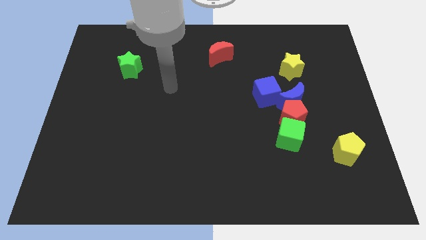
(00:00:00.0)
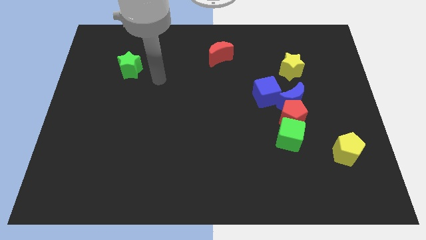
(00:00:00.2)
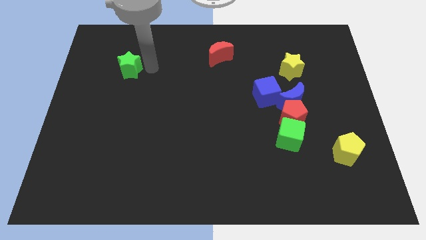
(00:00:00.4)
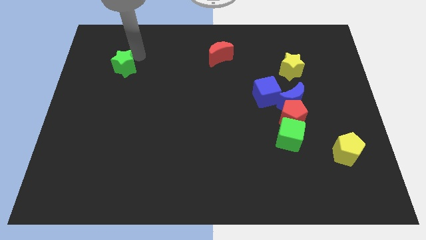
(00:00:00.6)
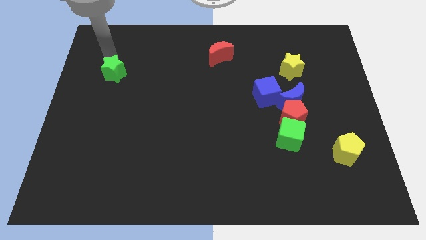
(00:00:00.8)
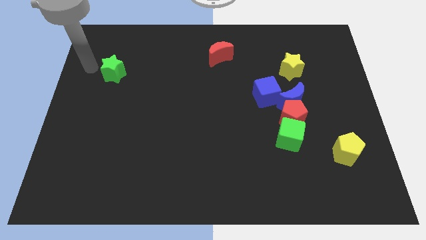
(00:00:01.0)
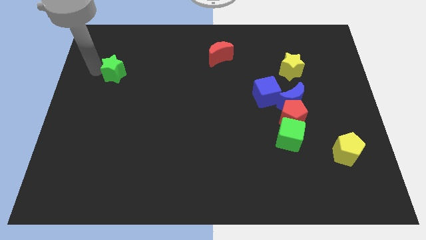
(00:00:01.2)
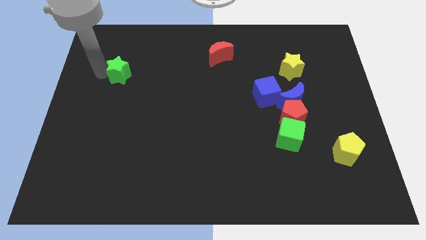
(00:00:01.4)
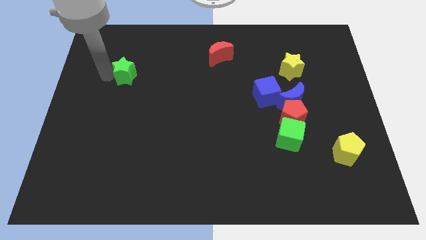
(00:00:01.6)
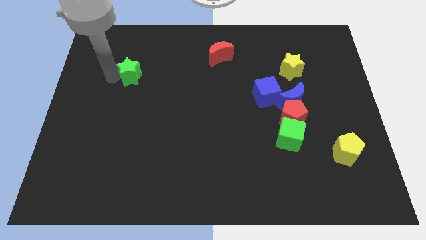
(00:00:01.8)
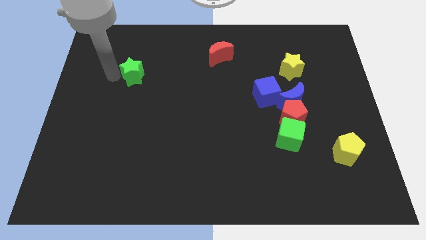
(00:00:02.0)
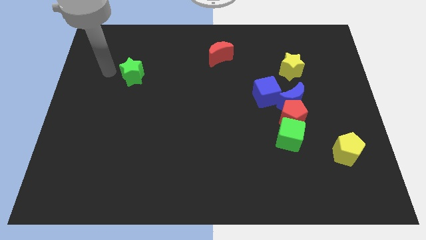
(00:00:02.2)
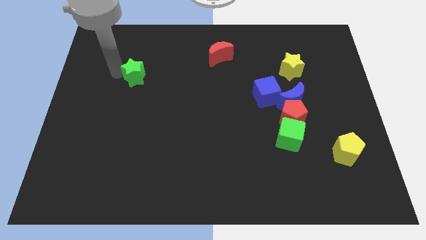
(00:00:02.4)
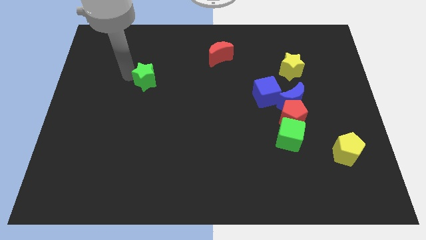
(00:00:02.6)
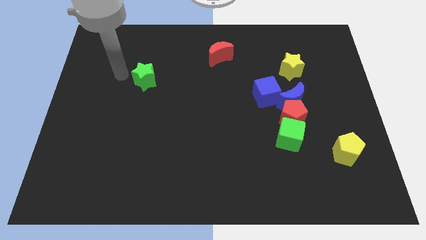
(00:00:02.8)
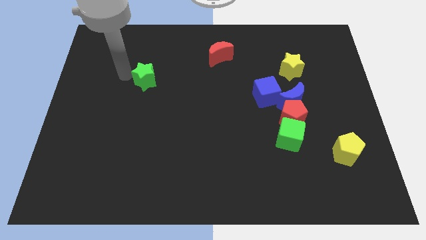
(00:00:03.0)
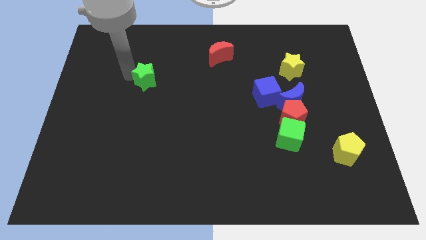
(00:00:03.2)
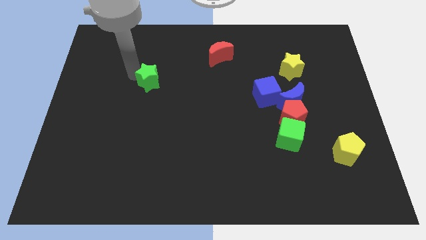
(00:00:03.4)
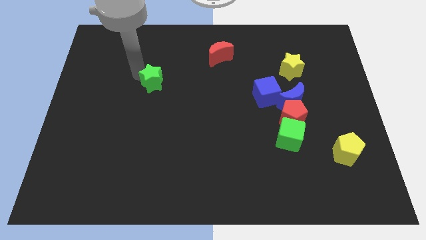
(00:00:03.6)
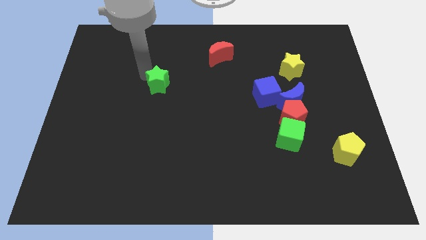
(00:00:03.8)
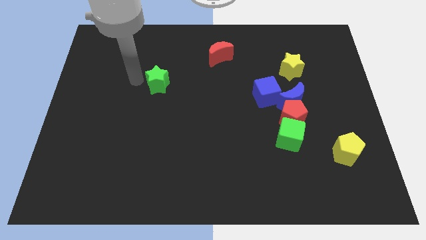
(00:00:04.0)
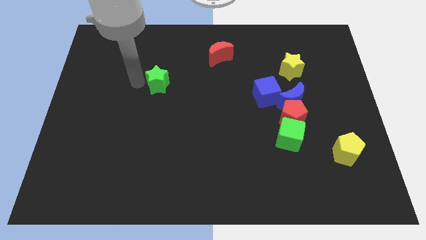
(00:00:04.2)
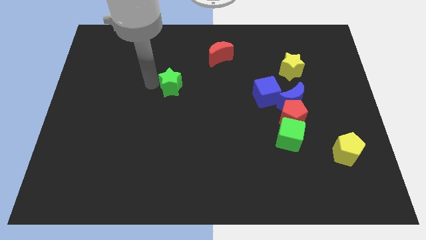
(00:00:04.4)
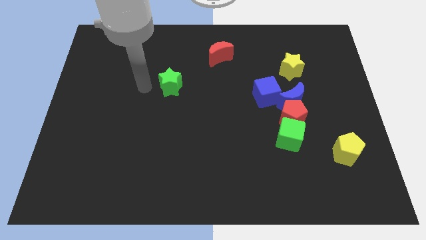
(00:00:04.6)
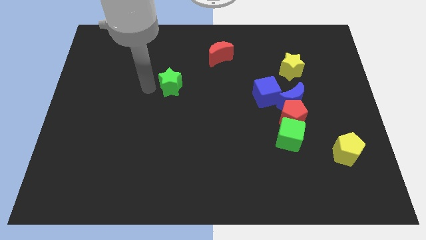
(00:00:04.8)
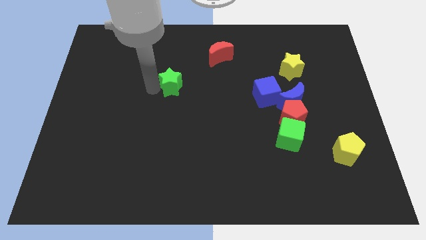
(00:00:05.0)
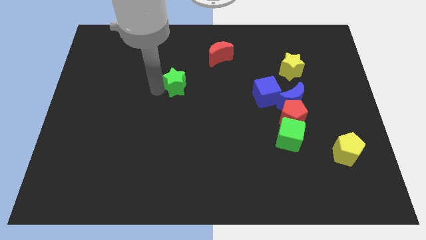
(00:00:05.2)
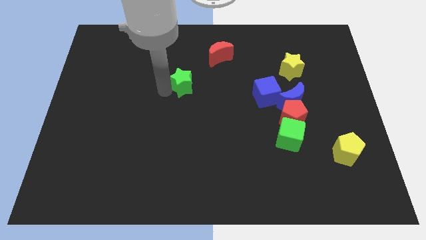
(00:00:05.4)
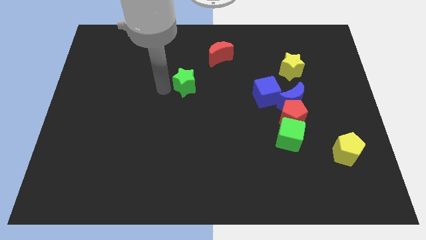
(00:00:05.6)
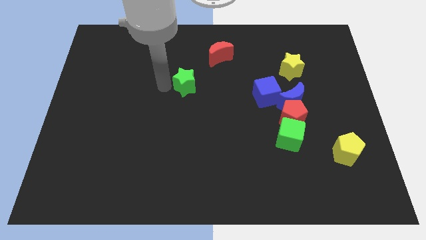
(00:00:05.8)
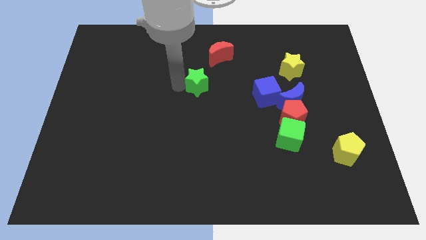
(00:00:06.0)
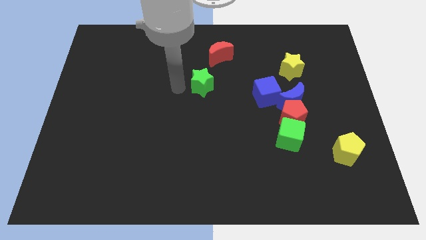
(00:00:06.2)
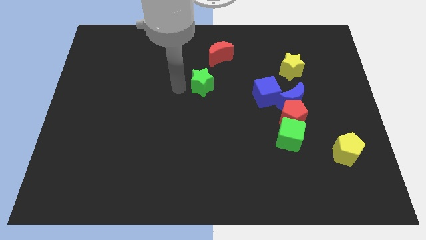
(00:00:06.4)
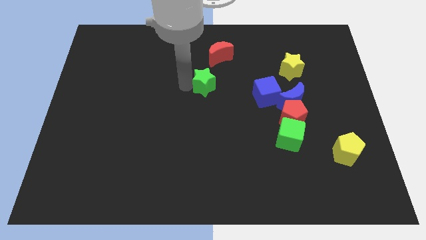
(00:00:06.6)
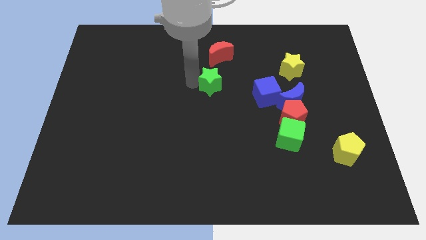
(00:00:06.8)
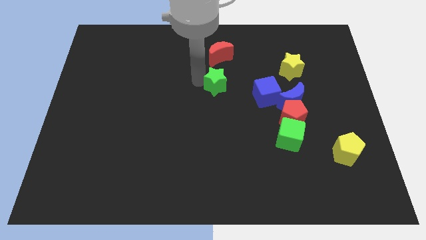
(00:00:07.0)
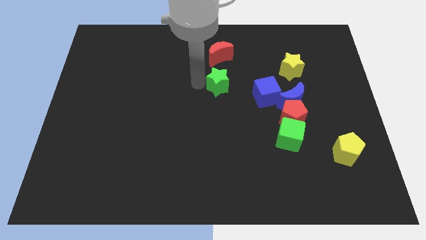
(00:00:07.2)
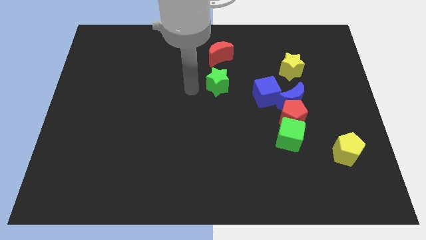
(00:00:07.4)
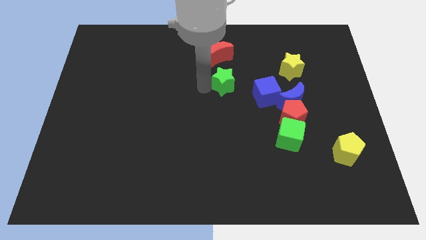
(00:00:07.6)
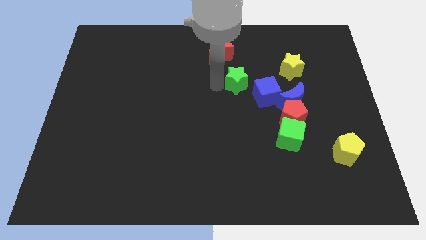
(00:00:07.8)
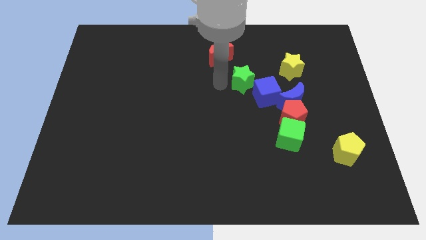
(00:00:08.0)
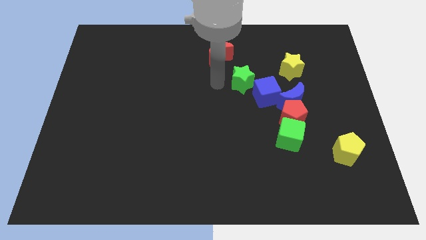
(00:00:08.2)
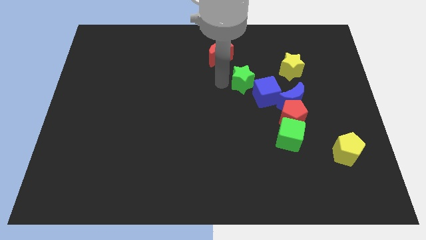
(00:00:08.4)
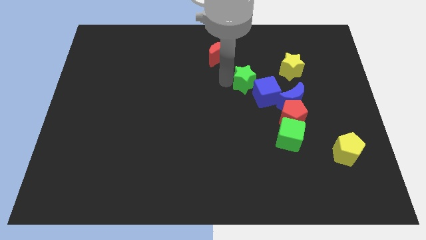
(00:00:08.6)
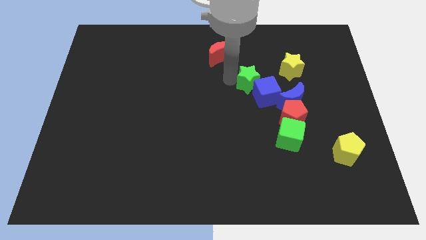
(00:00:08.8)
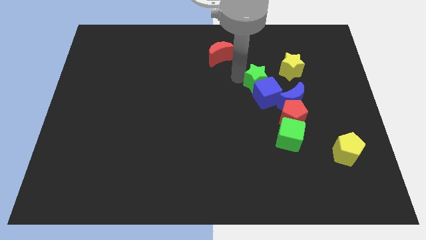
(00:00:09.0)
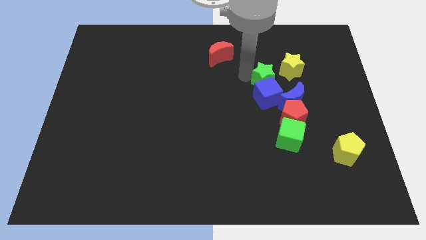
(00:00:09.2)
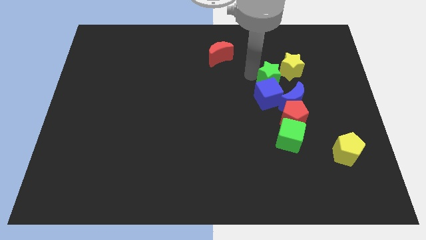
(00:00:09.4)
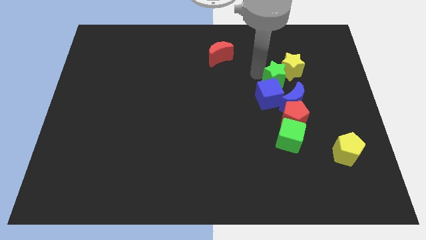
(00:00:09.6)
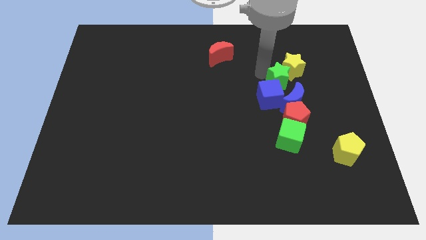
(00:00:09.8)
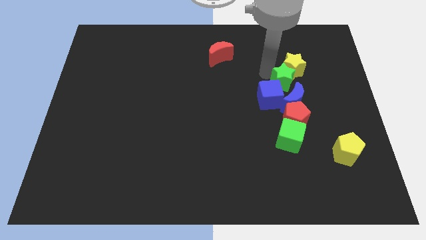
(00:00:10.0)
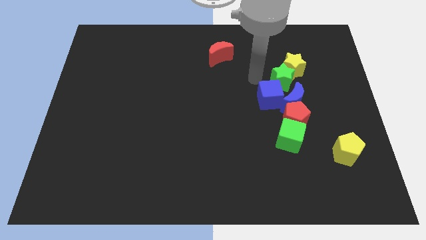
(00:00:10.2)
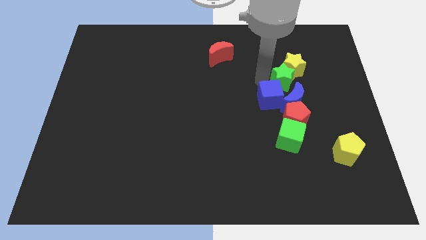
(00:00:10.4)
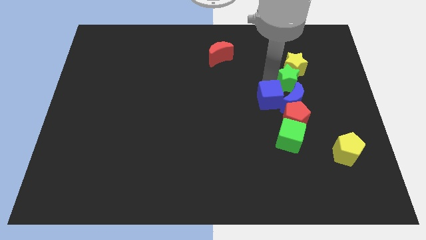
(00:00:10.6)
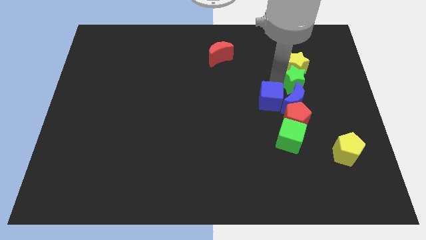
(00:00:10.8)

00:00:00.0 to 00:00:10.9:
move the green star to the bottom right side of the yellow star

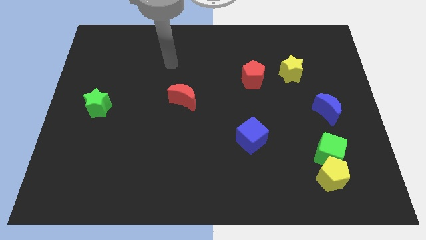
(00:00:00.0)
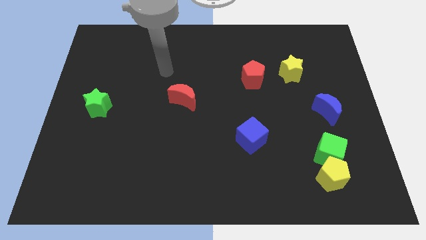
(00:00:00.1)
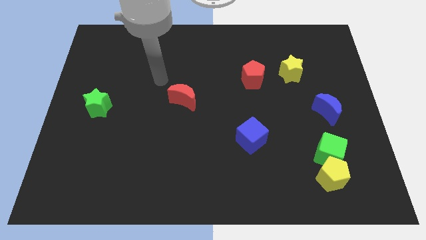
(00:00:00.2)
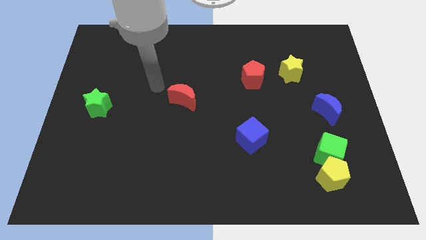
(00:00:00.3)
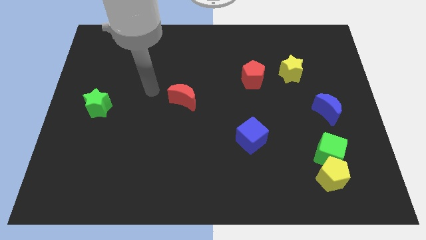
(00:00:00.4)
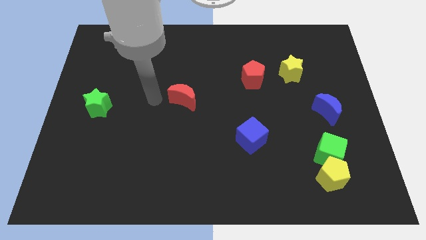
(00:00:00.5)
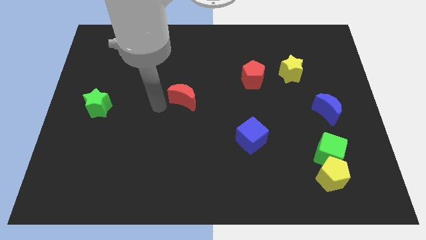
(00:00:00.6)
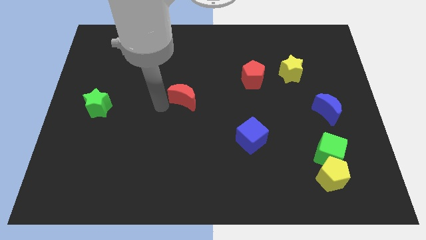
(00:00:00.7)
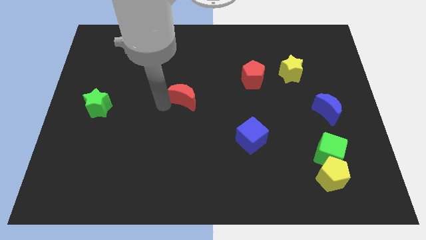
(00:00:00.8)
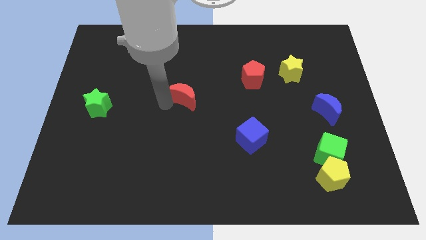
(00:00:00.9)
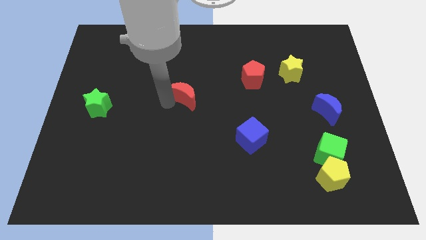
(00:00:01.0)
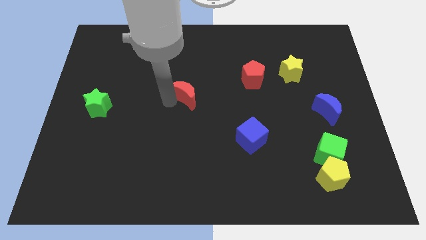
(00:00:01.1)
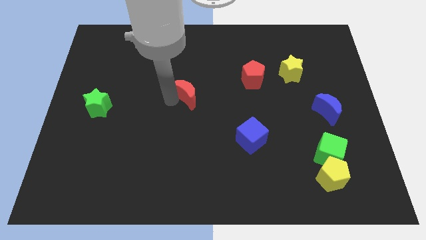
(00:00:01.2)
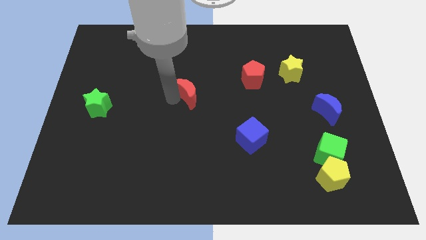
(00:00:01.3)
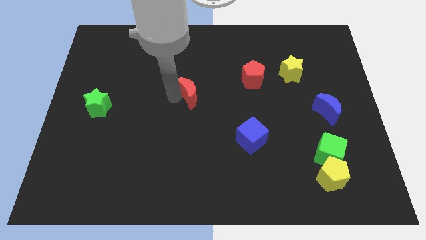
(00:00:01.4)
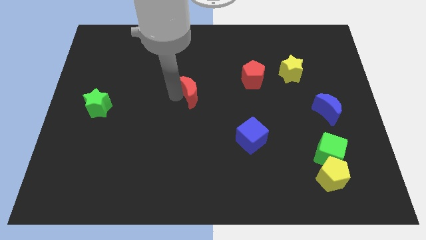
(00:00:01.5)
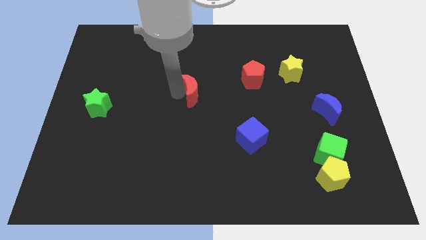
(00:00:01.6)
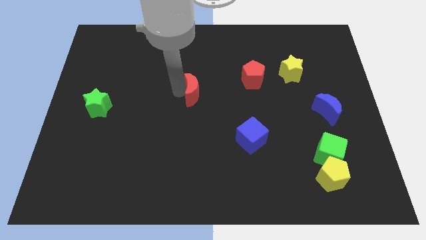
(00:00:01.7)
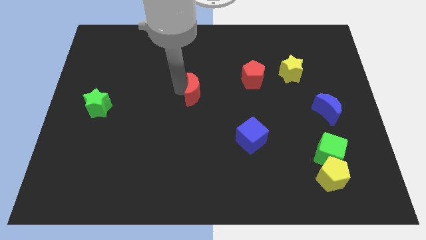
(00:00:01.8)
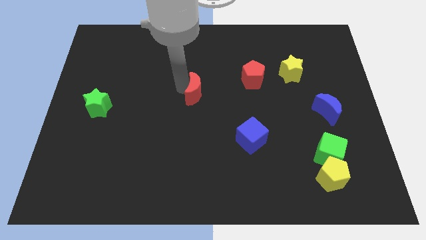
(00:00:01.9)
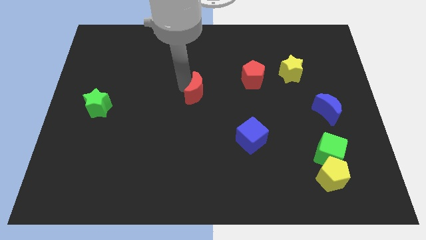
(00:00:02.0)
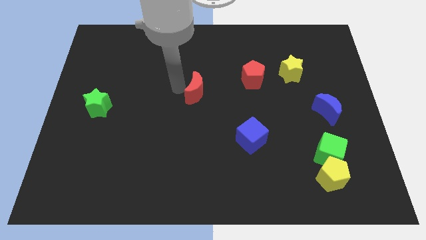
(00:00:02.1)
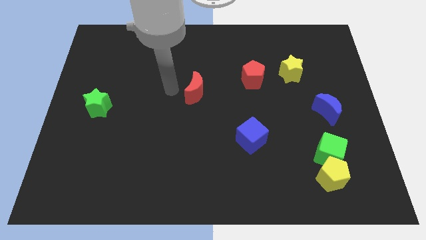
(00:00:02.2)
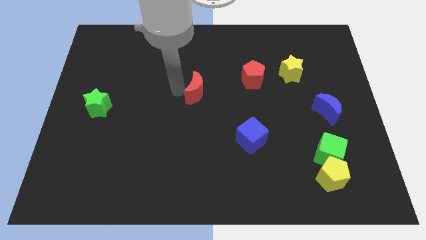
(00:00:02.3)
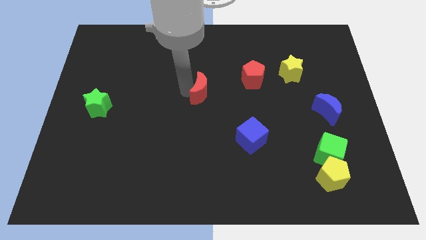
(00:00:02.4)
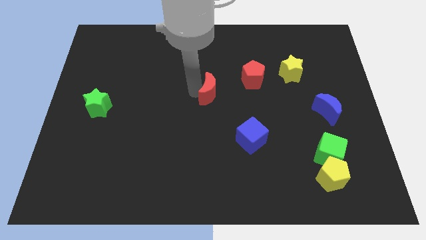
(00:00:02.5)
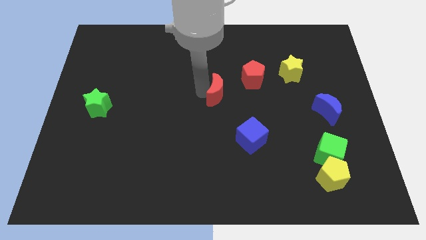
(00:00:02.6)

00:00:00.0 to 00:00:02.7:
move the red moon to the bottom left of the red pentagon
